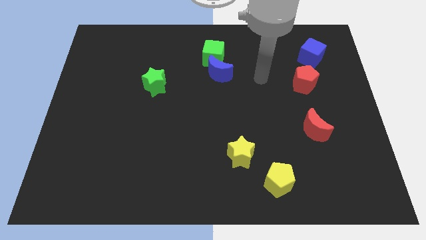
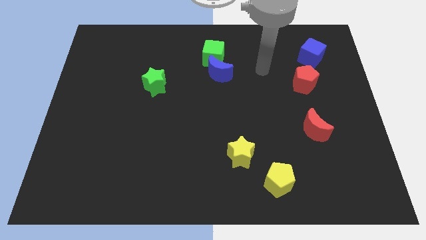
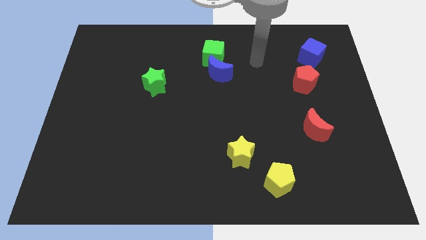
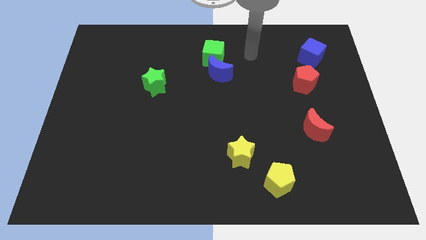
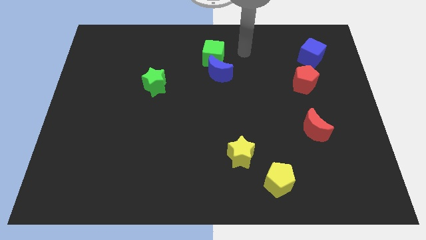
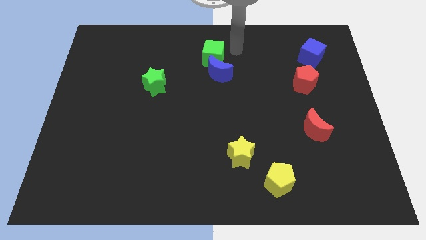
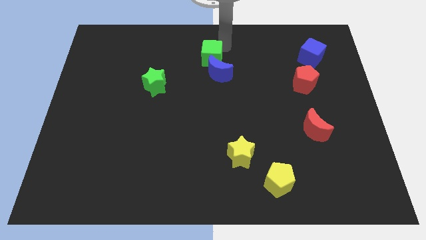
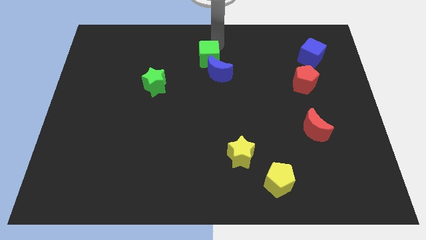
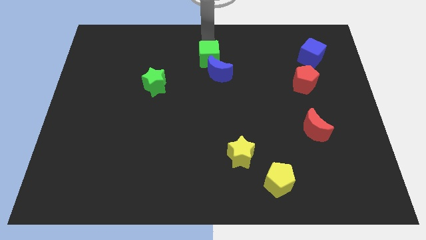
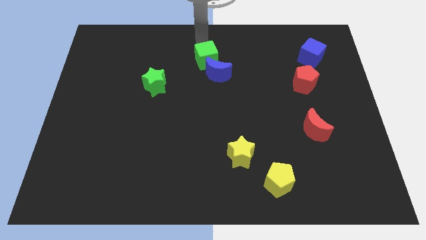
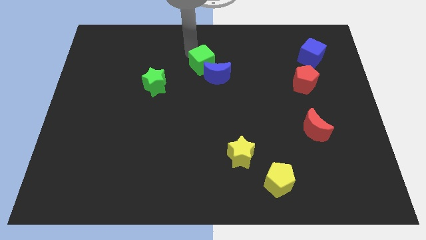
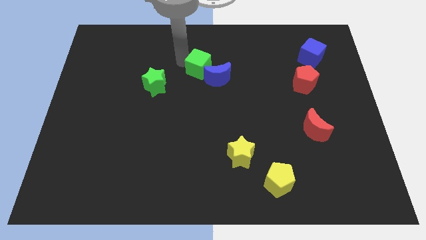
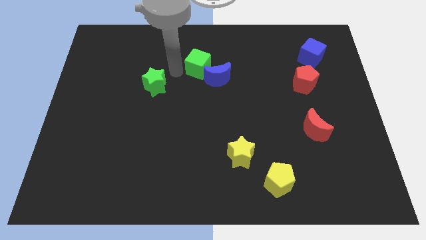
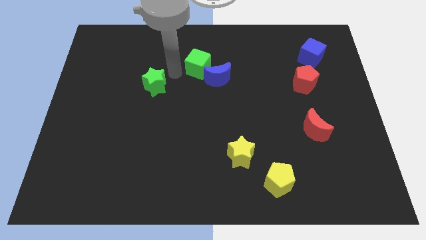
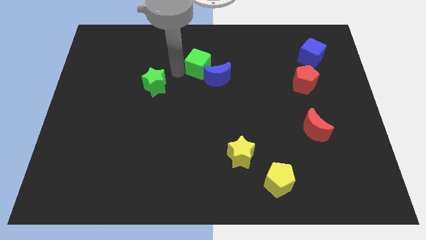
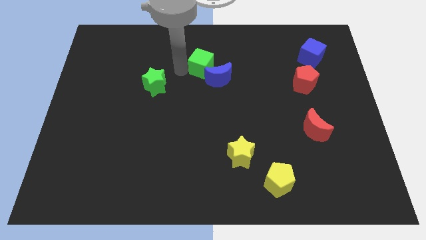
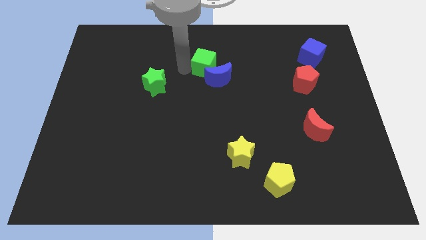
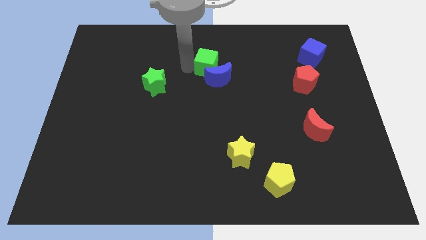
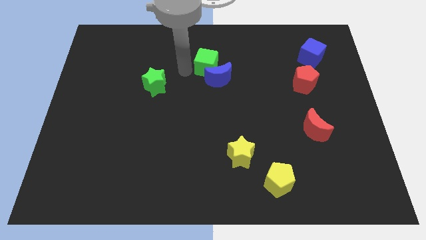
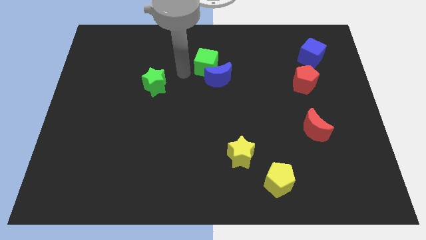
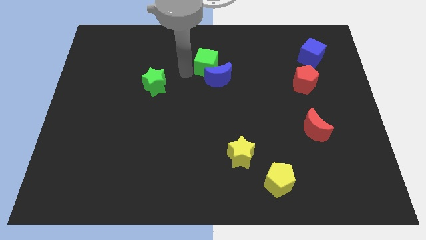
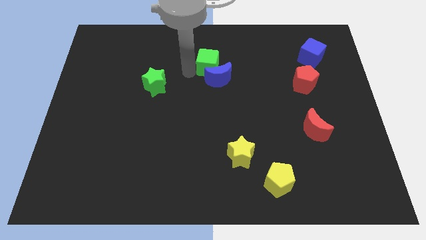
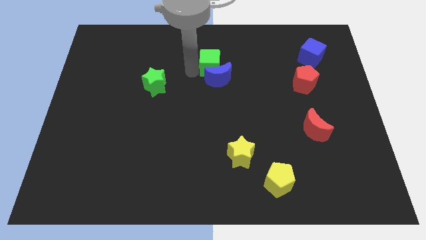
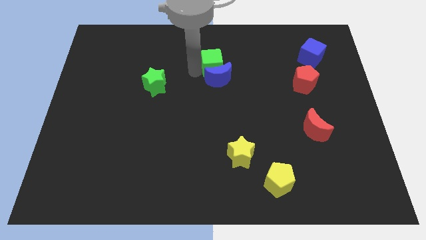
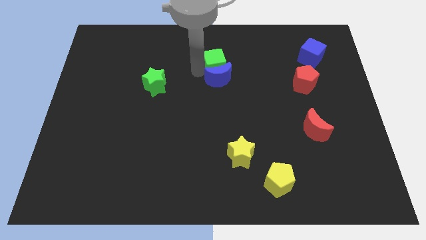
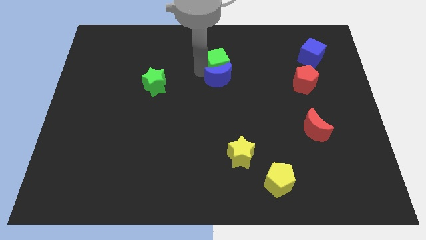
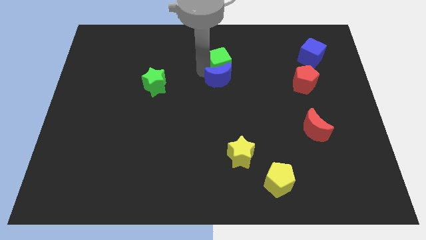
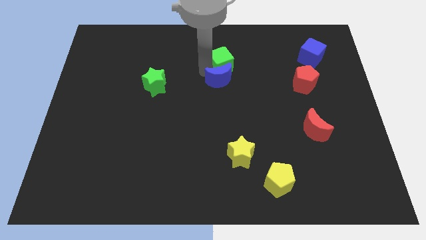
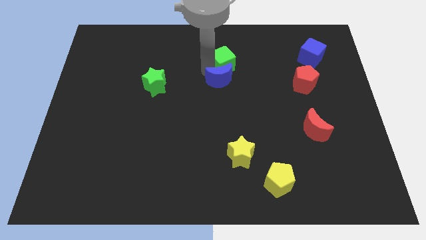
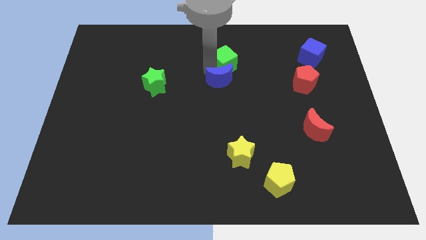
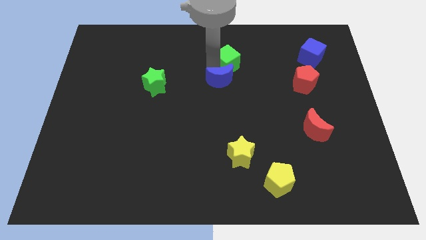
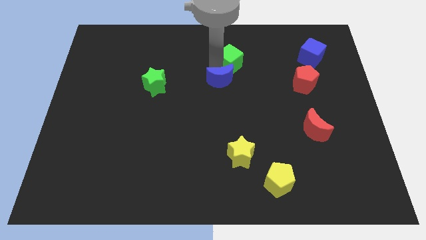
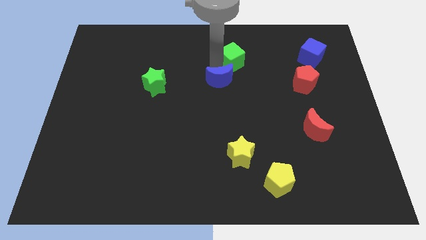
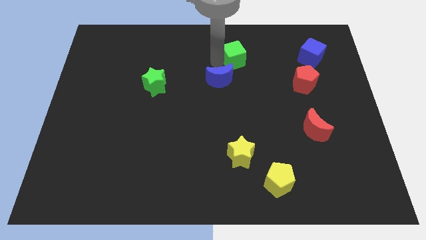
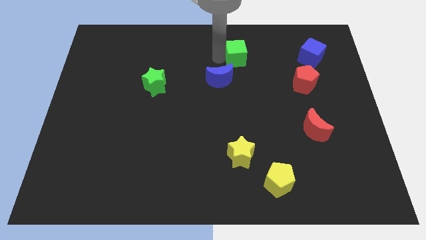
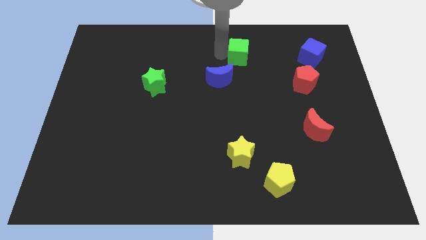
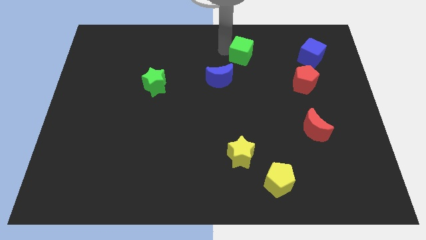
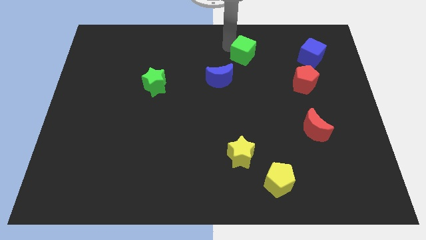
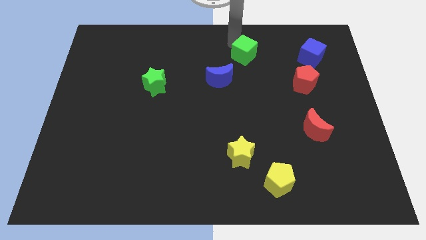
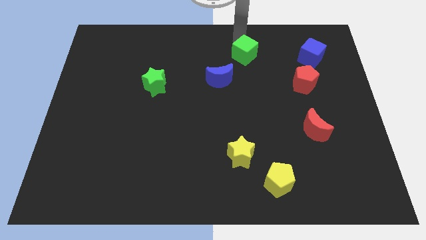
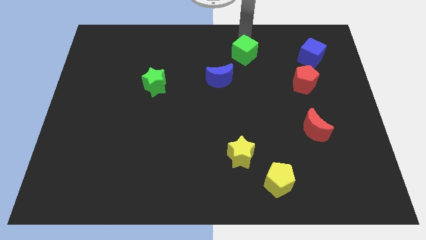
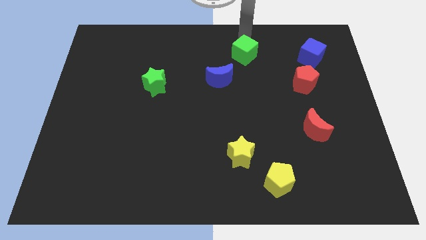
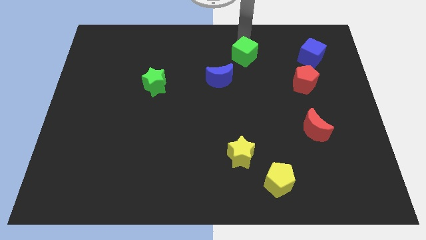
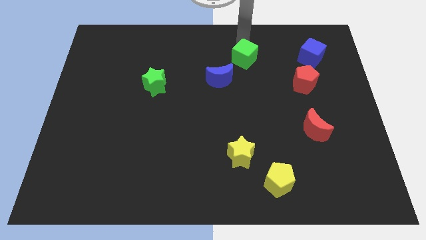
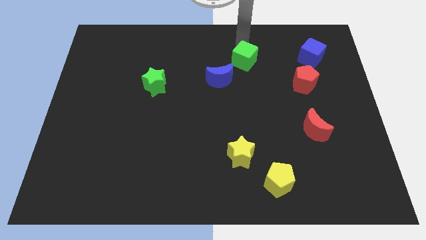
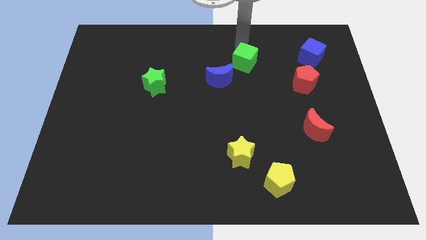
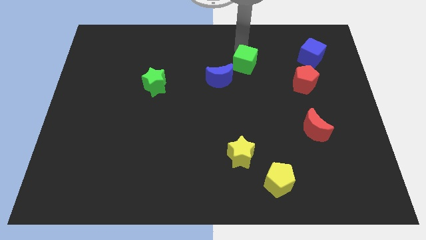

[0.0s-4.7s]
slightly move the green cube down and then right

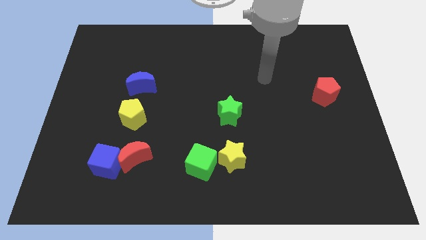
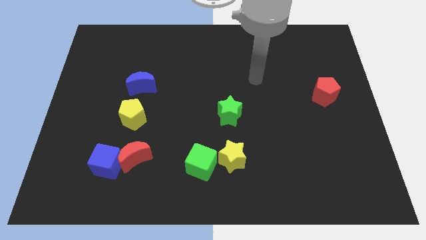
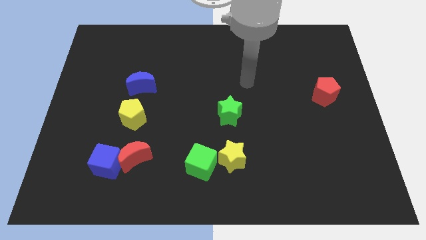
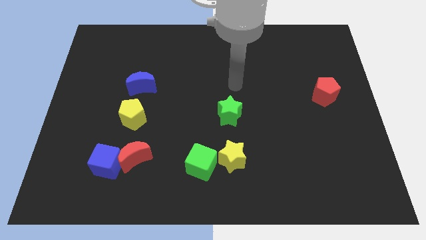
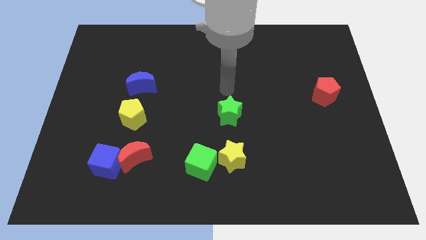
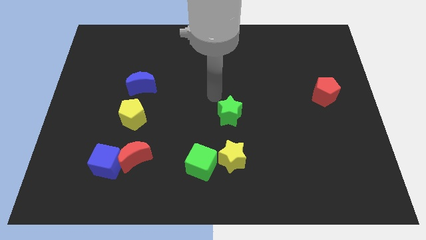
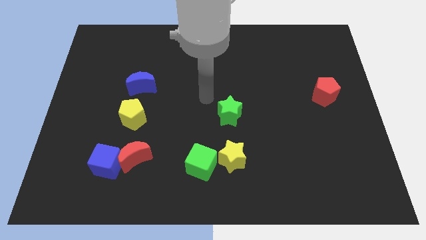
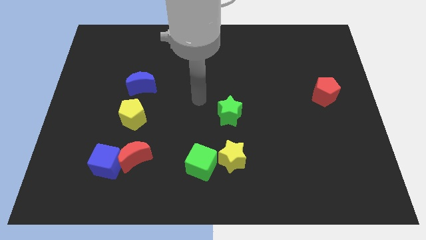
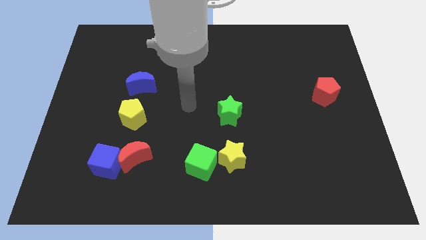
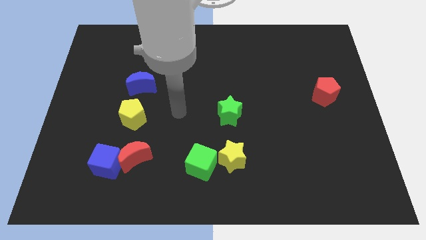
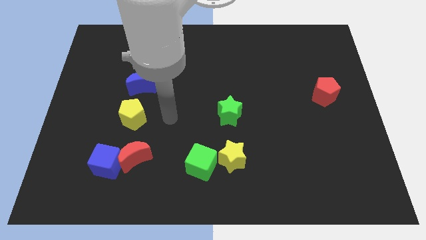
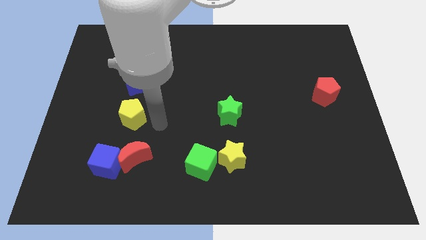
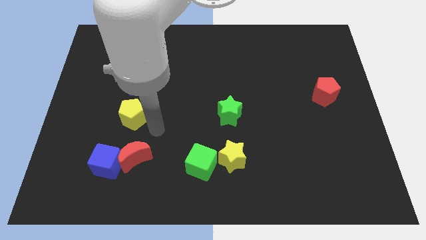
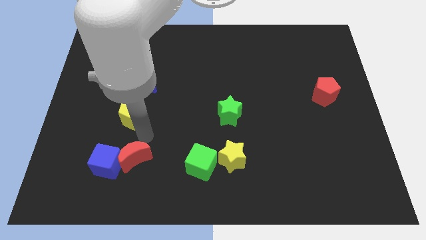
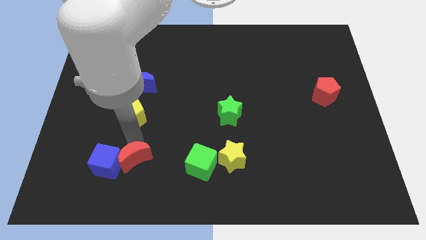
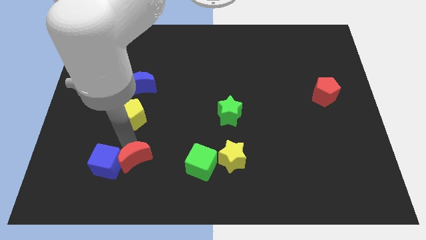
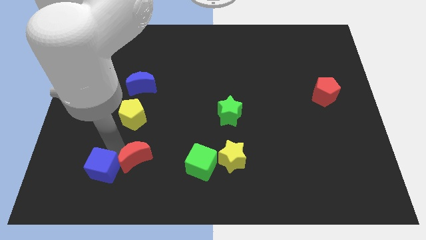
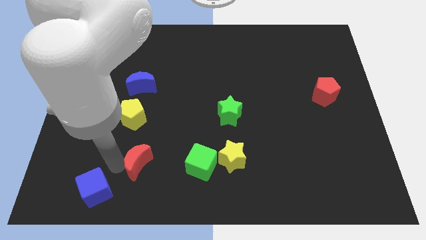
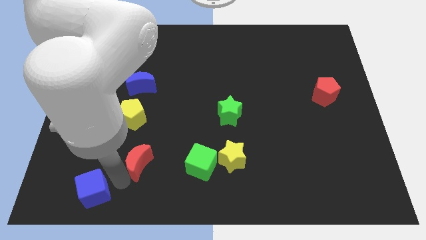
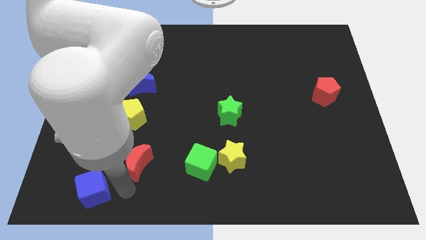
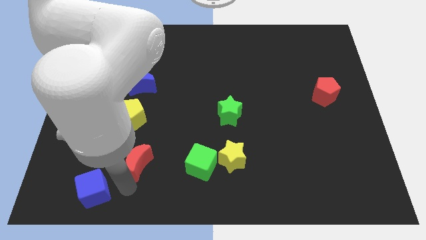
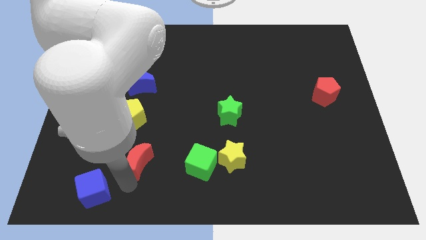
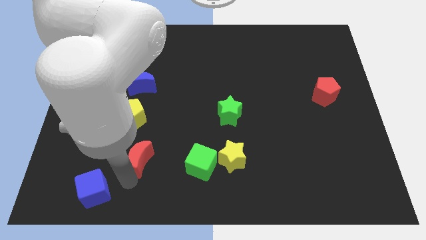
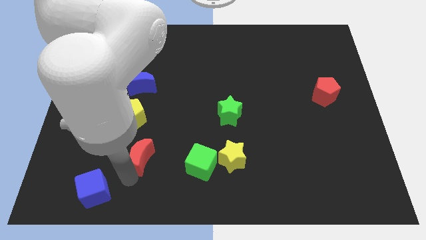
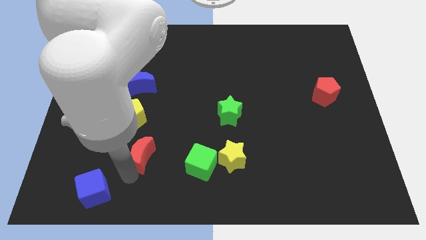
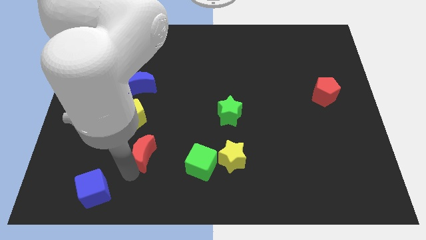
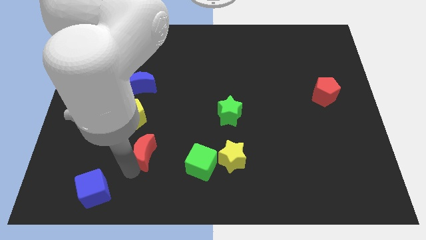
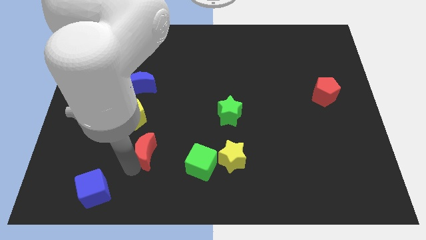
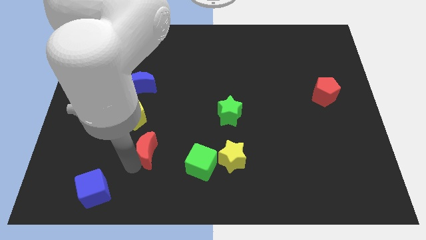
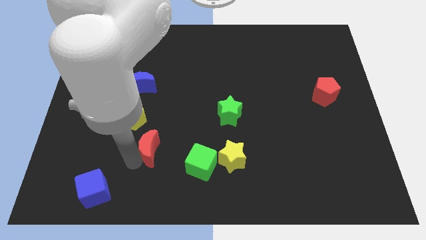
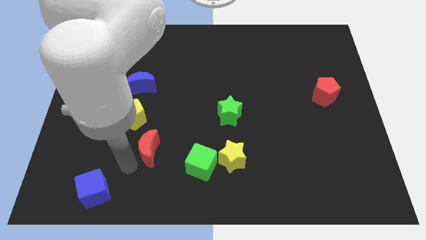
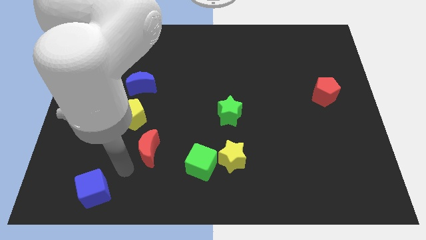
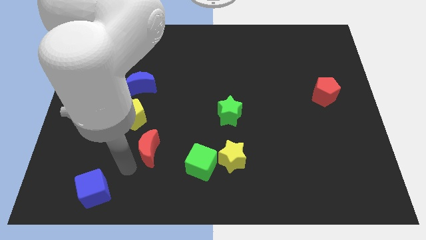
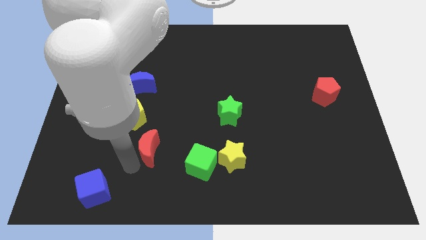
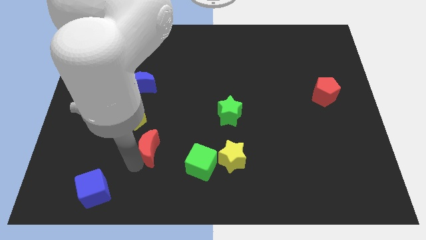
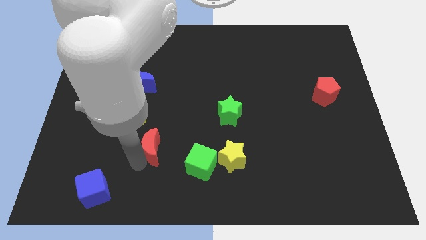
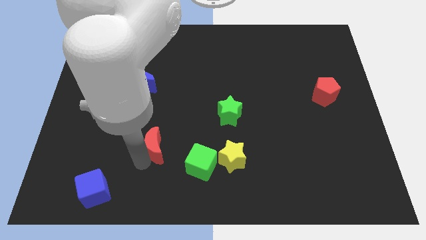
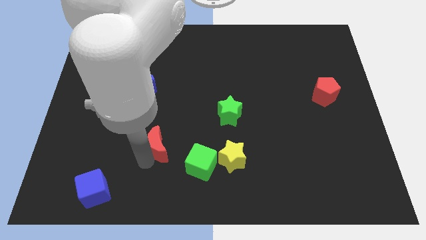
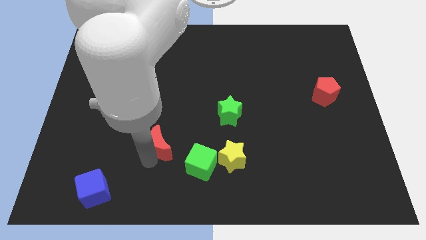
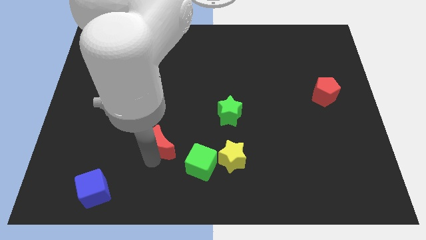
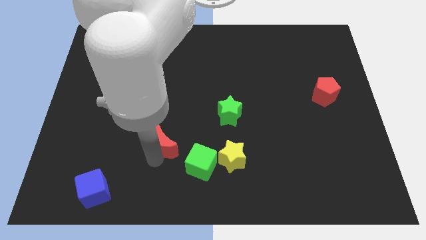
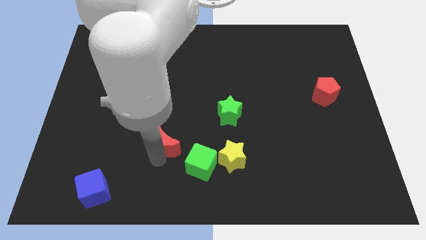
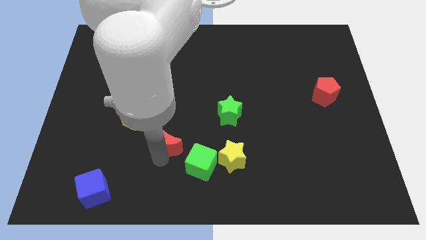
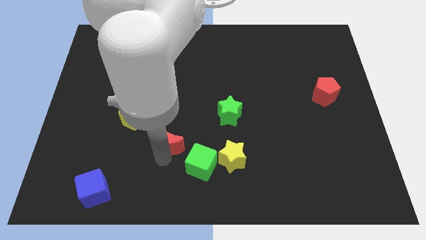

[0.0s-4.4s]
move the red moon a little bit upwards and right diagonally
